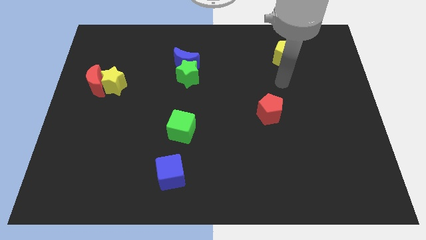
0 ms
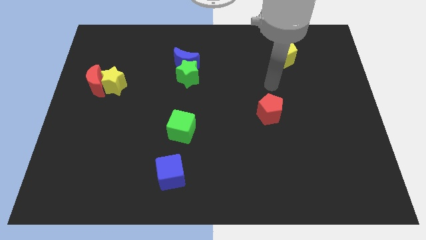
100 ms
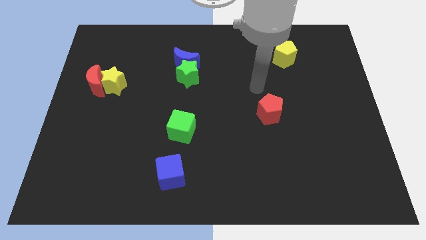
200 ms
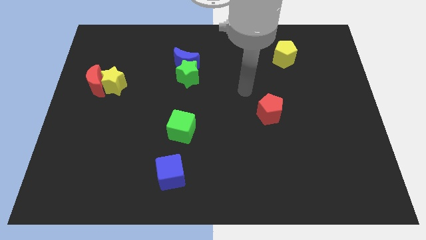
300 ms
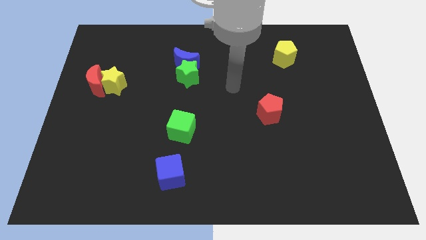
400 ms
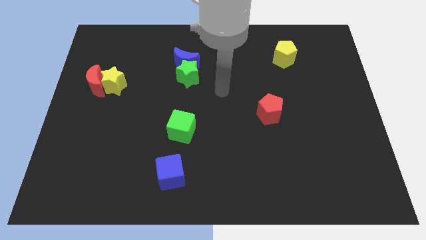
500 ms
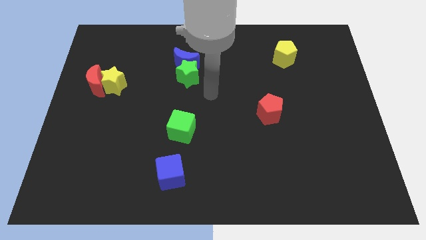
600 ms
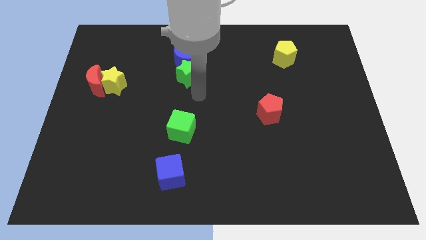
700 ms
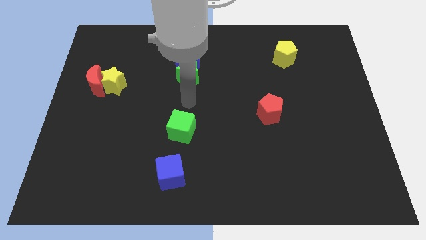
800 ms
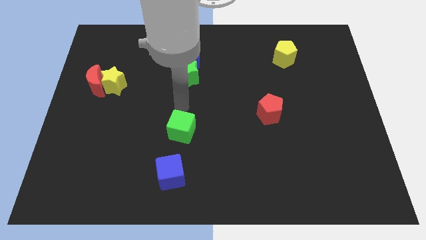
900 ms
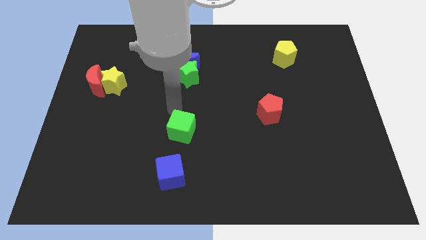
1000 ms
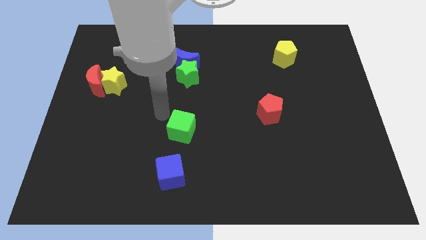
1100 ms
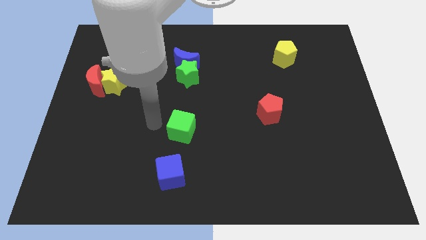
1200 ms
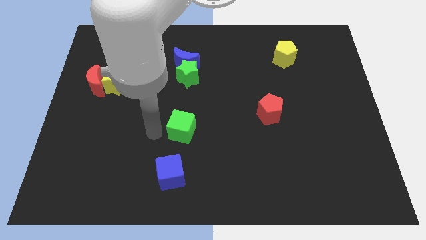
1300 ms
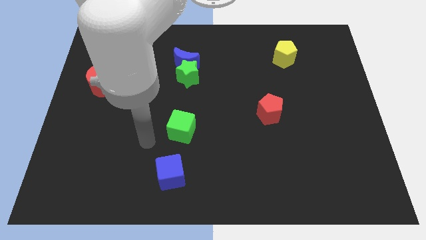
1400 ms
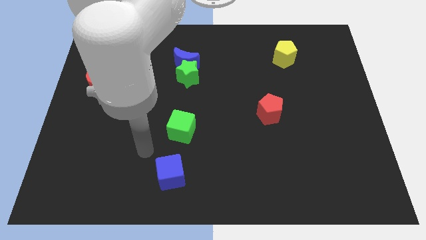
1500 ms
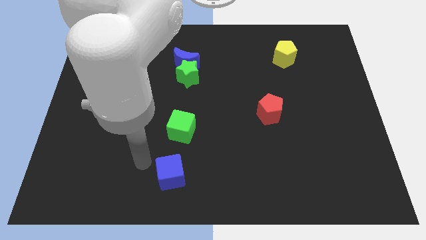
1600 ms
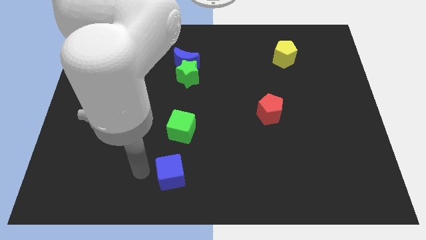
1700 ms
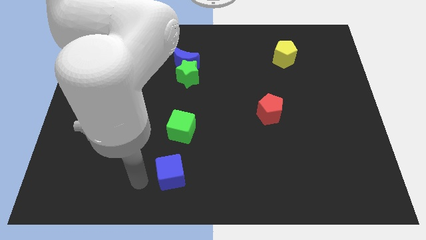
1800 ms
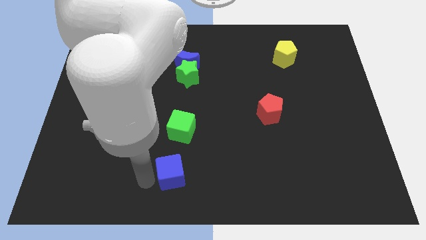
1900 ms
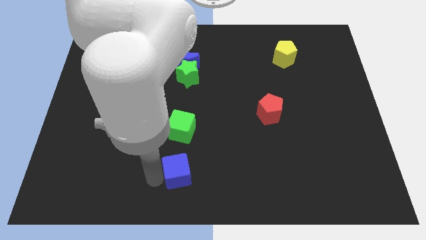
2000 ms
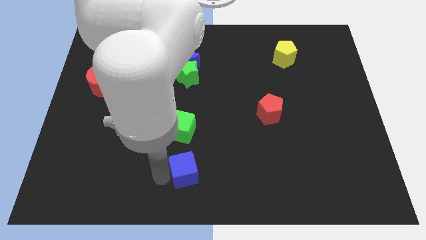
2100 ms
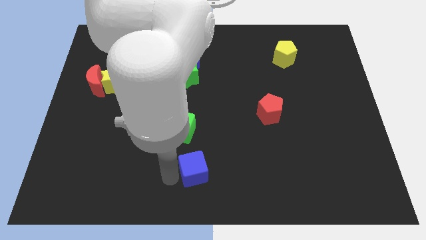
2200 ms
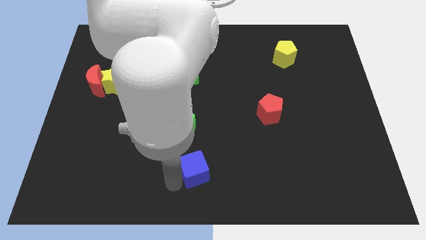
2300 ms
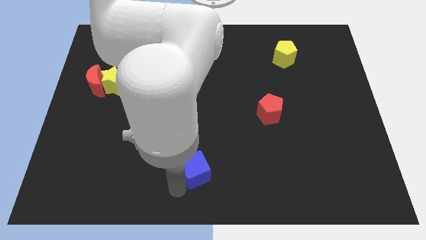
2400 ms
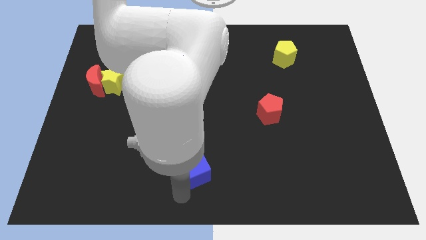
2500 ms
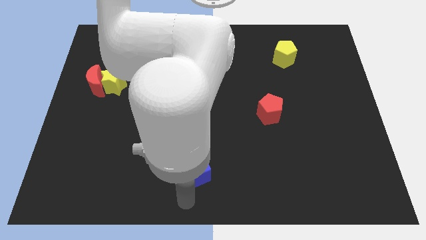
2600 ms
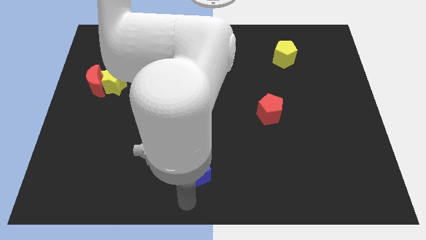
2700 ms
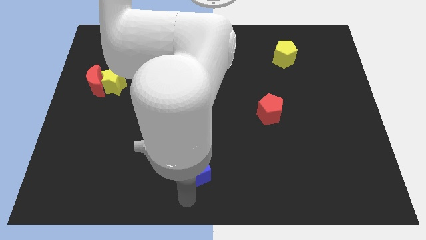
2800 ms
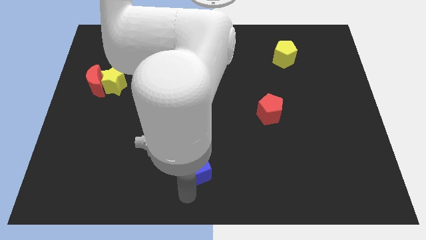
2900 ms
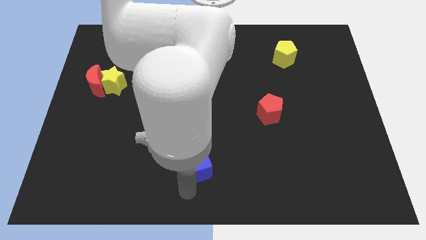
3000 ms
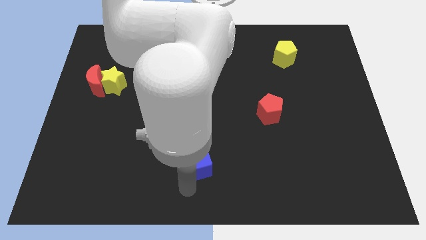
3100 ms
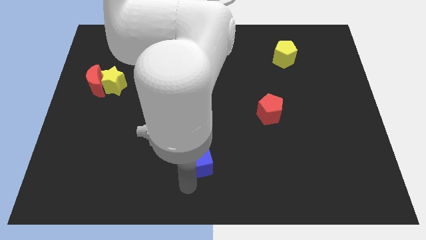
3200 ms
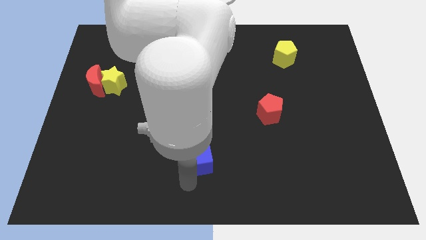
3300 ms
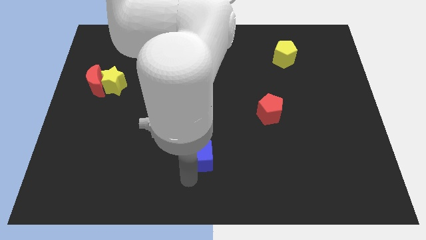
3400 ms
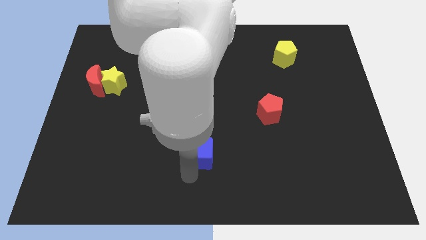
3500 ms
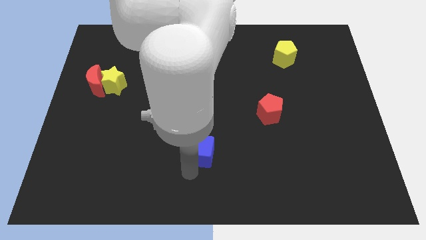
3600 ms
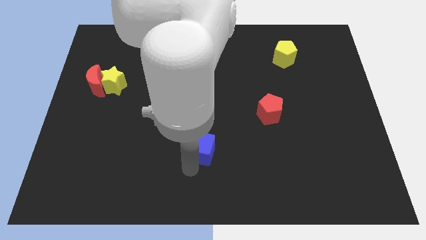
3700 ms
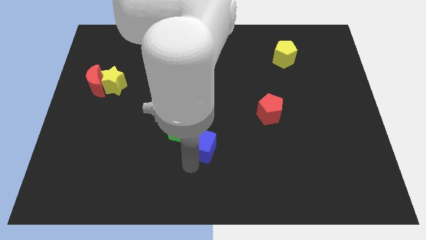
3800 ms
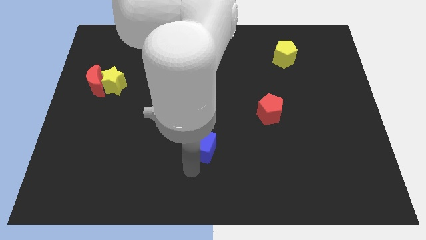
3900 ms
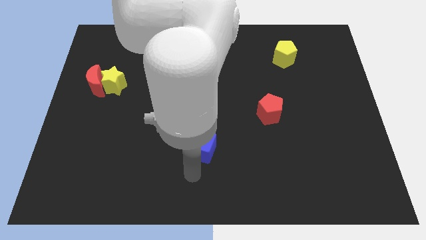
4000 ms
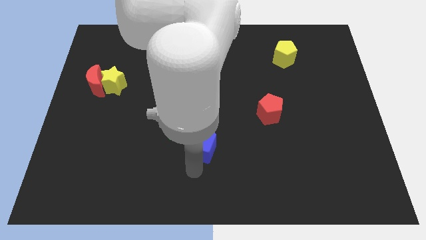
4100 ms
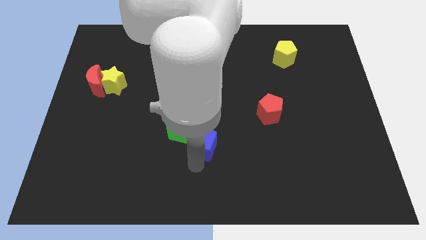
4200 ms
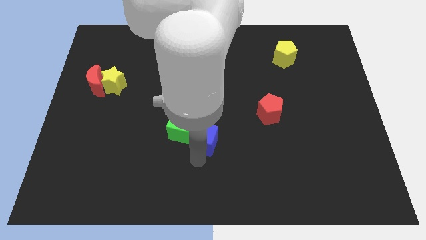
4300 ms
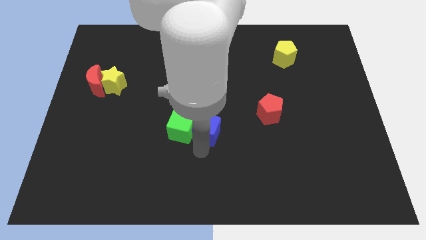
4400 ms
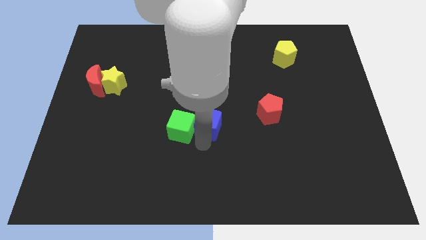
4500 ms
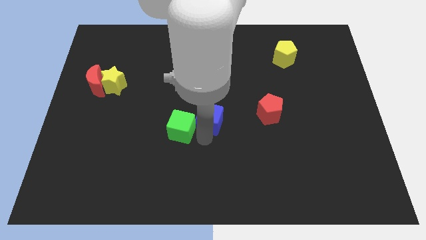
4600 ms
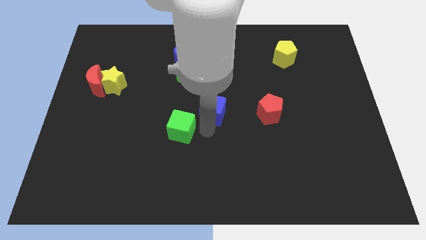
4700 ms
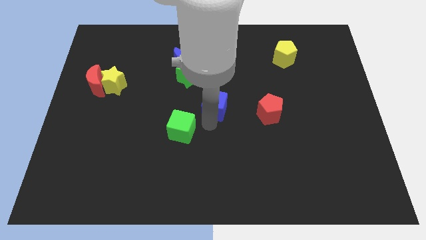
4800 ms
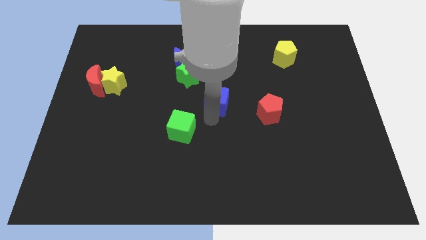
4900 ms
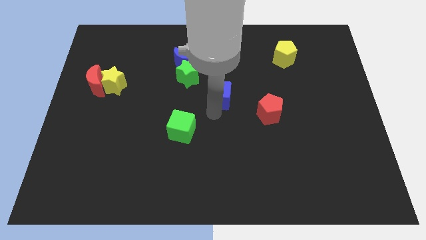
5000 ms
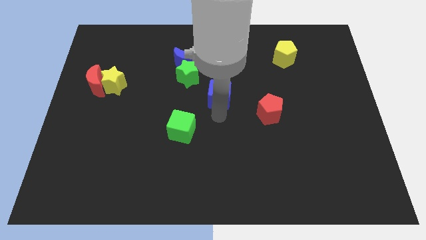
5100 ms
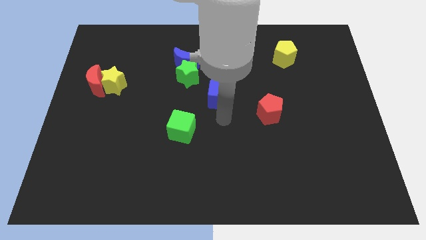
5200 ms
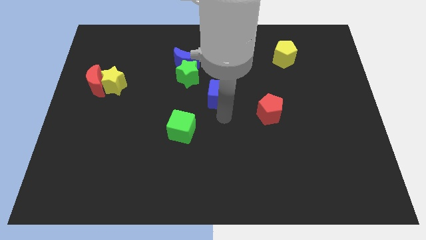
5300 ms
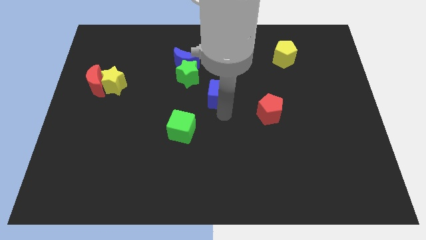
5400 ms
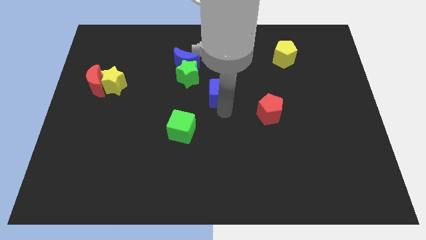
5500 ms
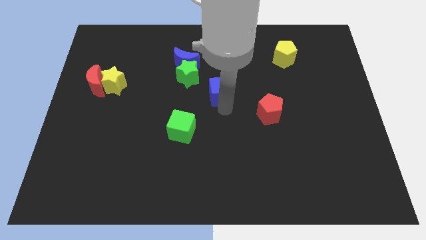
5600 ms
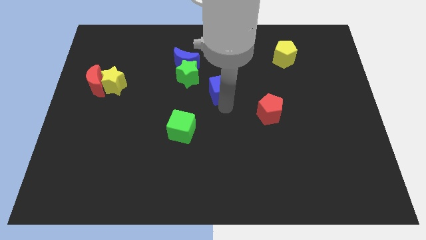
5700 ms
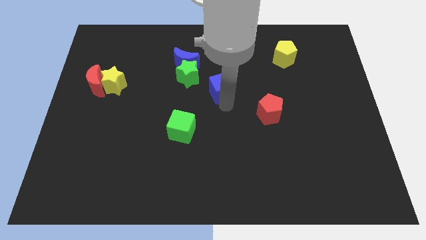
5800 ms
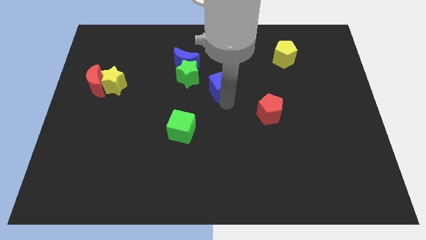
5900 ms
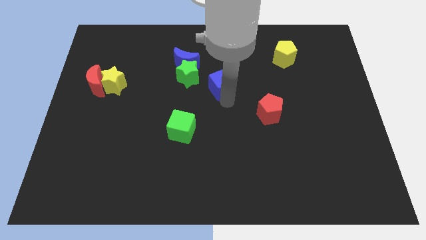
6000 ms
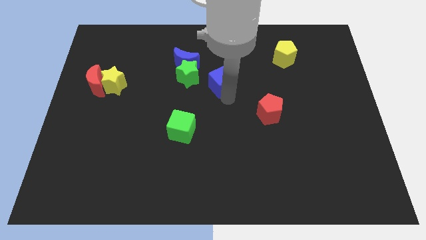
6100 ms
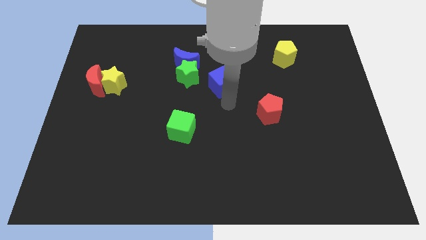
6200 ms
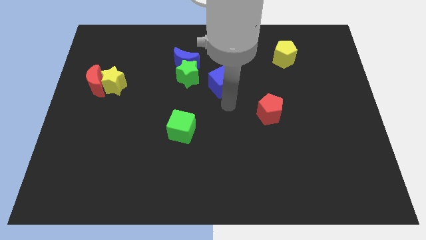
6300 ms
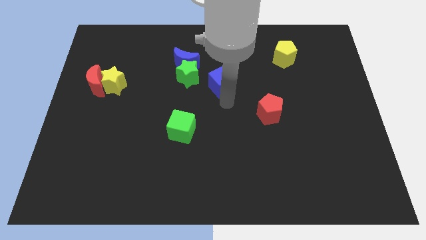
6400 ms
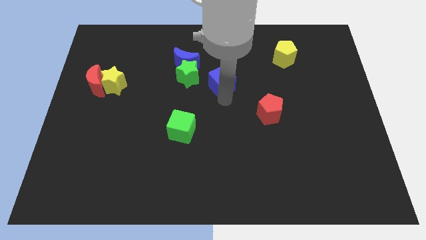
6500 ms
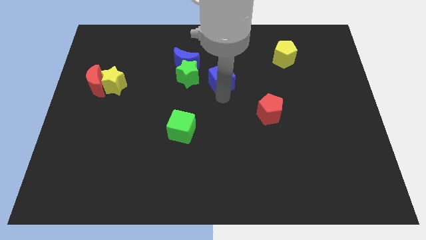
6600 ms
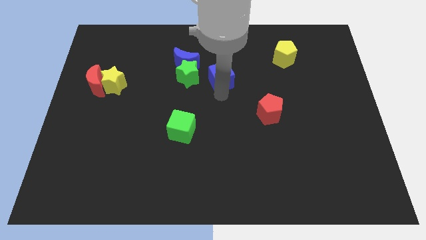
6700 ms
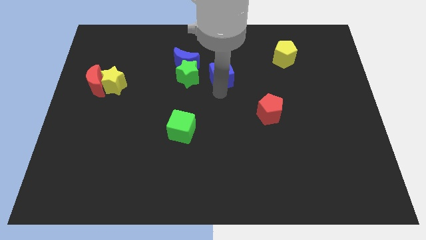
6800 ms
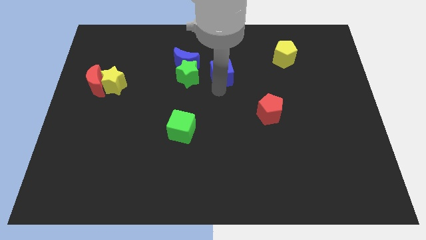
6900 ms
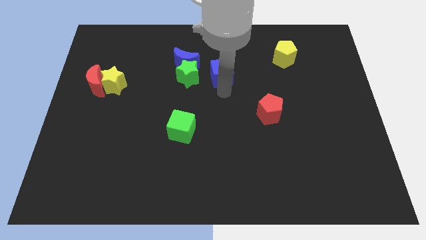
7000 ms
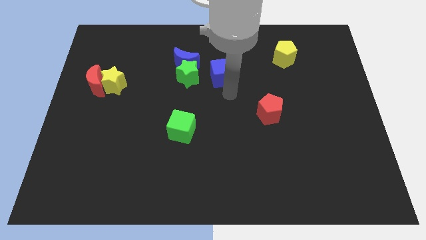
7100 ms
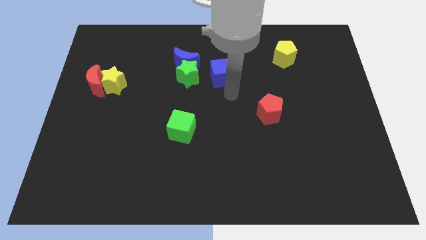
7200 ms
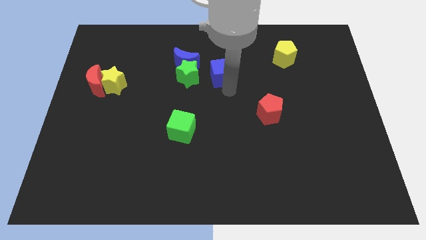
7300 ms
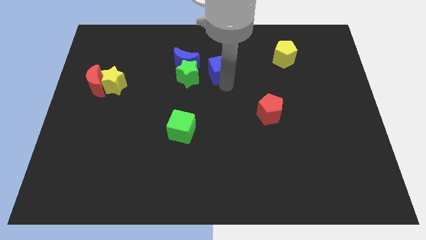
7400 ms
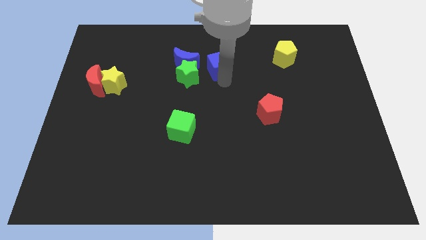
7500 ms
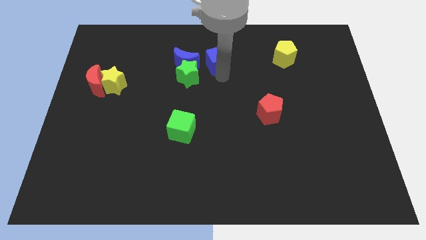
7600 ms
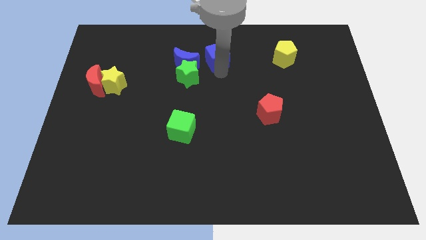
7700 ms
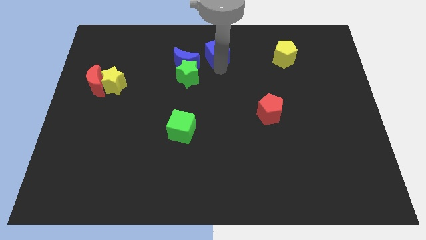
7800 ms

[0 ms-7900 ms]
put the blue cube to the towards your base
